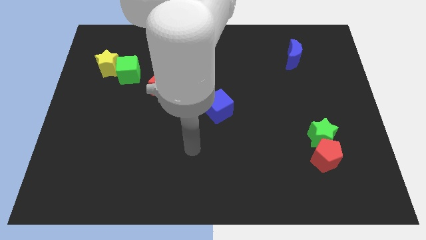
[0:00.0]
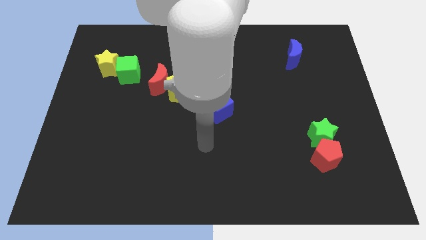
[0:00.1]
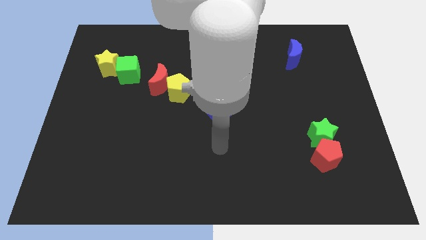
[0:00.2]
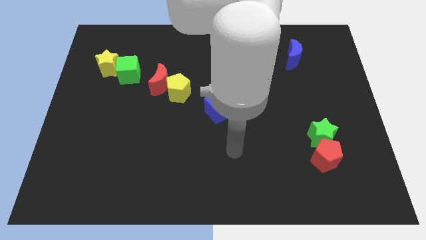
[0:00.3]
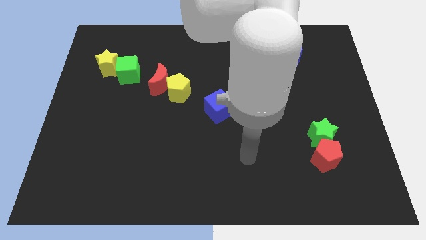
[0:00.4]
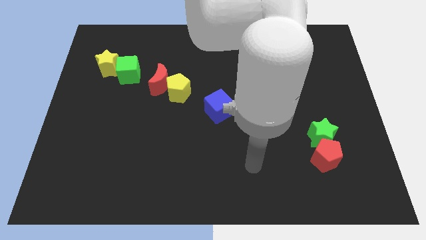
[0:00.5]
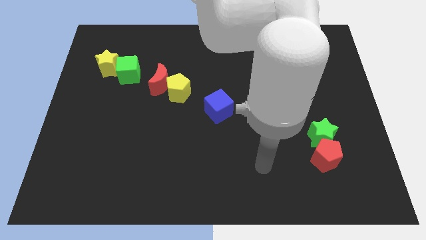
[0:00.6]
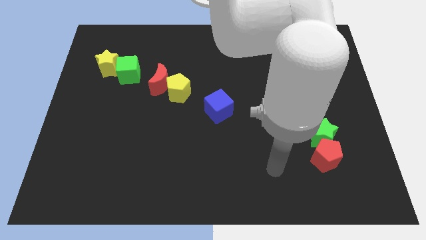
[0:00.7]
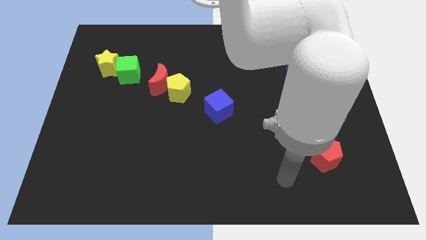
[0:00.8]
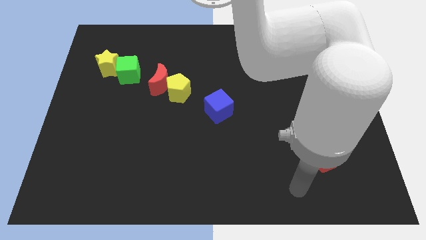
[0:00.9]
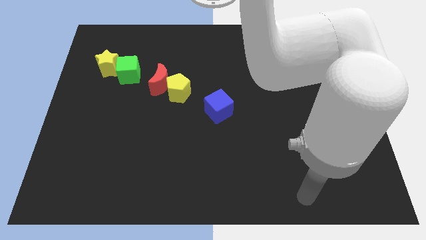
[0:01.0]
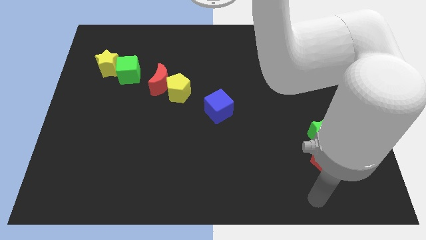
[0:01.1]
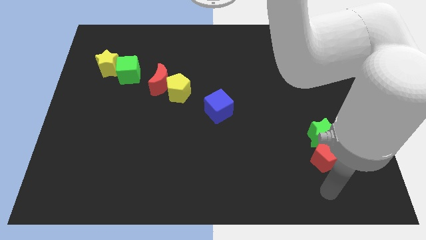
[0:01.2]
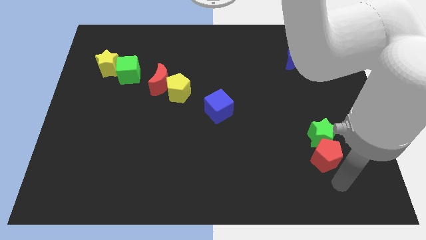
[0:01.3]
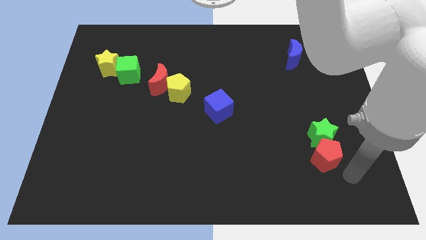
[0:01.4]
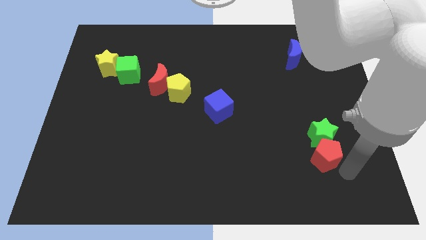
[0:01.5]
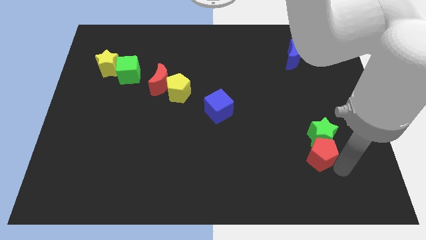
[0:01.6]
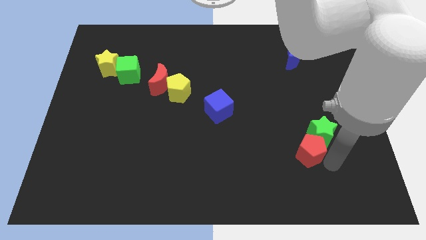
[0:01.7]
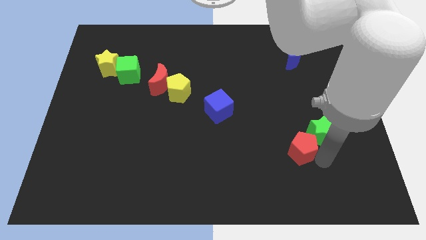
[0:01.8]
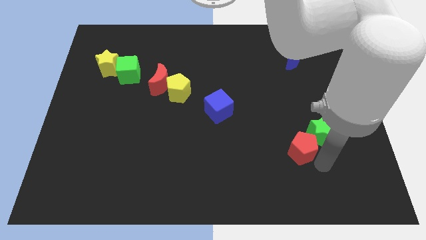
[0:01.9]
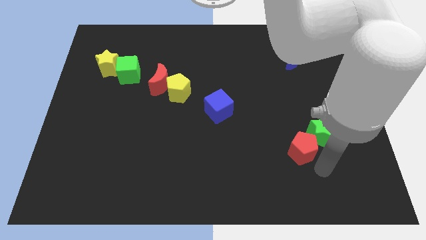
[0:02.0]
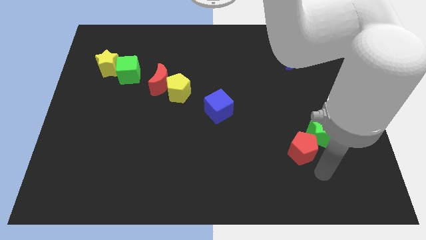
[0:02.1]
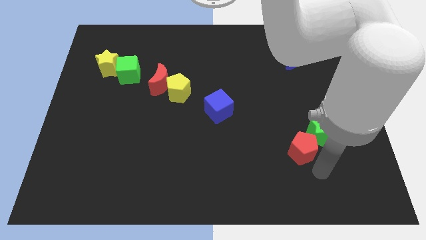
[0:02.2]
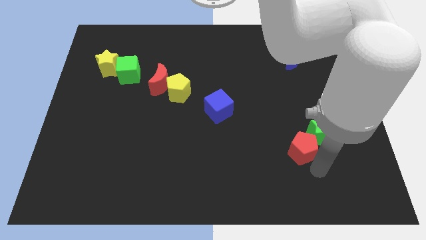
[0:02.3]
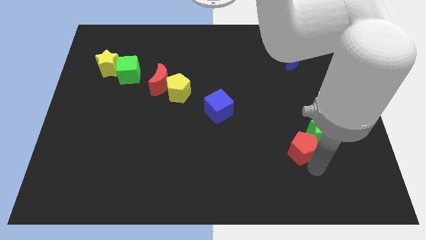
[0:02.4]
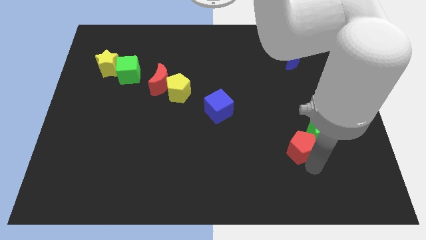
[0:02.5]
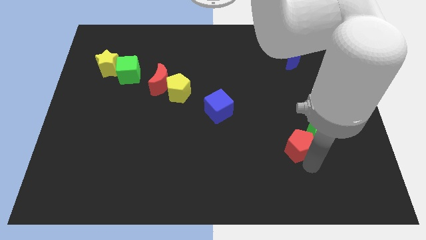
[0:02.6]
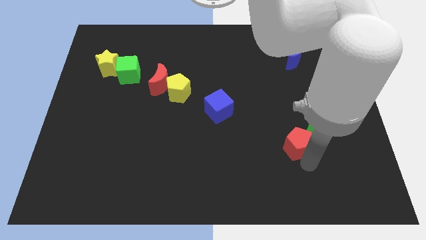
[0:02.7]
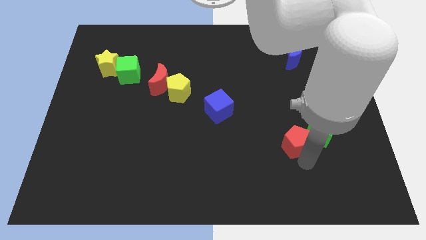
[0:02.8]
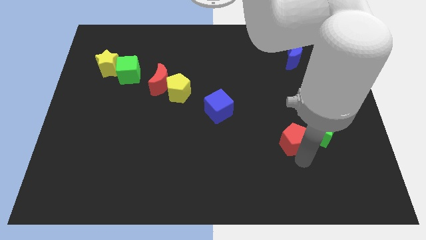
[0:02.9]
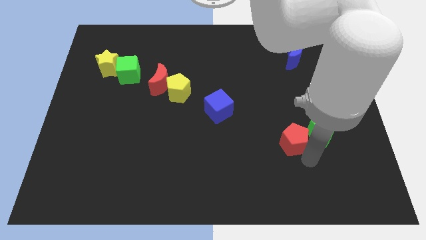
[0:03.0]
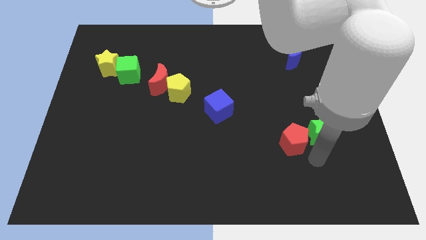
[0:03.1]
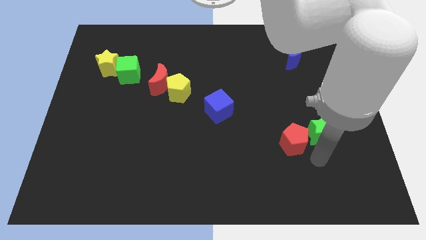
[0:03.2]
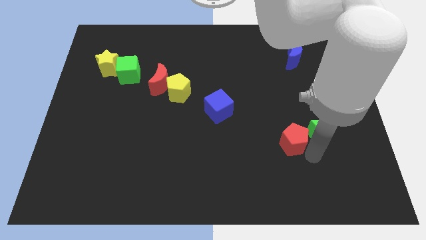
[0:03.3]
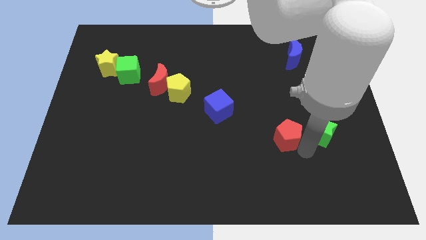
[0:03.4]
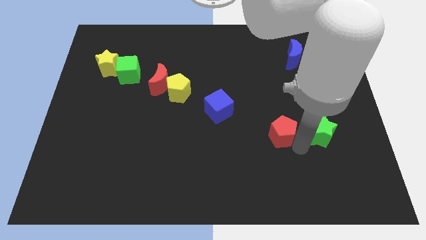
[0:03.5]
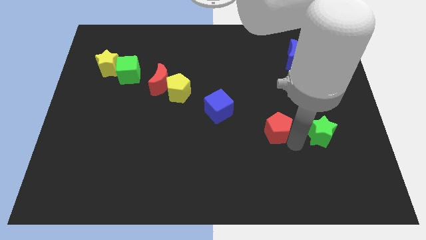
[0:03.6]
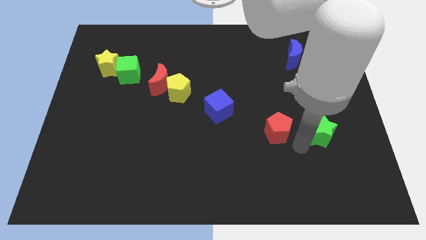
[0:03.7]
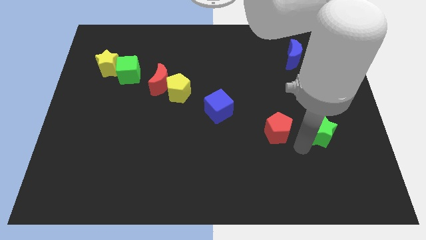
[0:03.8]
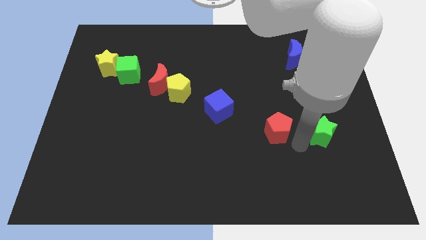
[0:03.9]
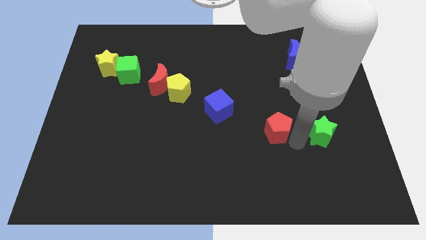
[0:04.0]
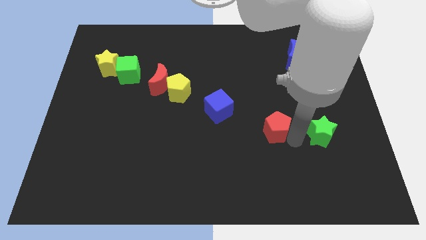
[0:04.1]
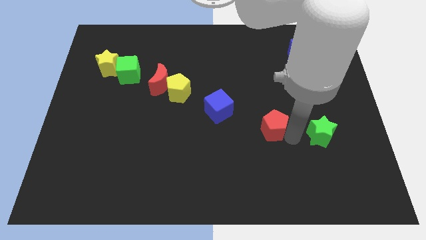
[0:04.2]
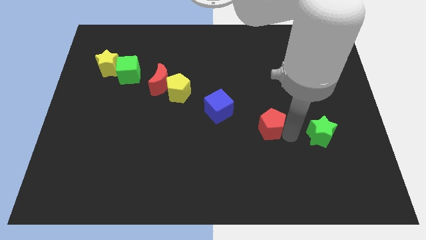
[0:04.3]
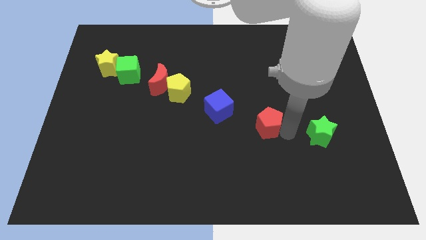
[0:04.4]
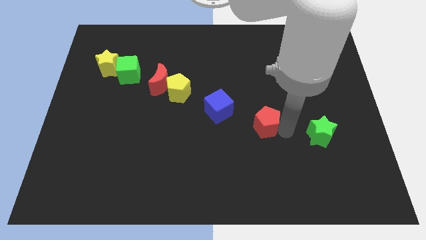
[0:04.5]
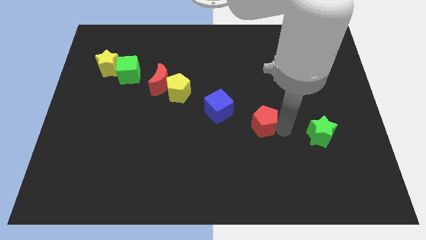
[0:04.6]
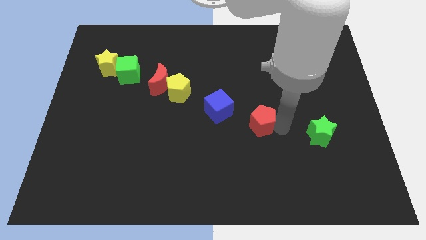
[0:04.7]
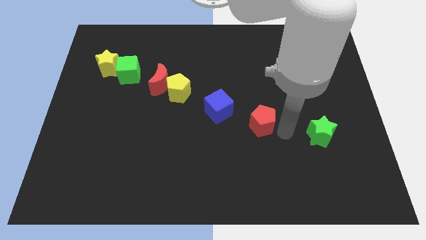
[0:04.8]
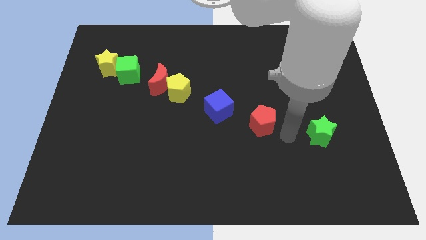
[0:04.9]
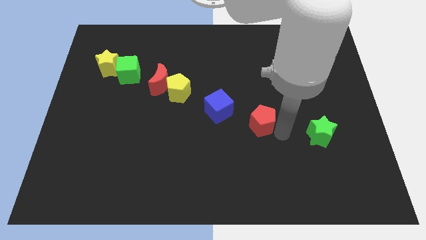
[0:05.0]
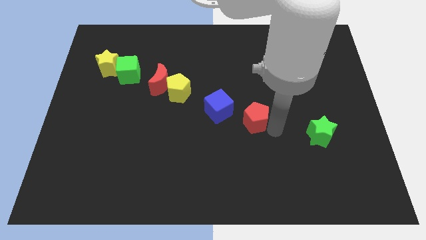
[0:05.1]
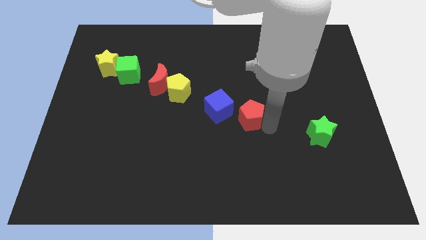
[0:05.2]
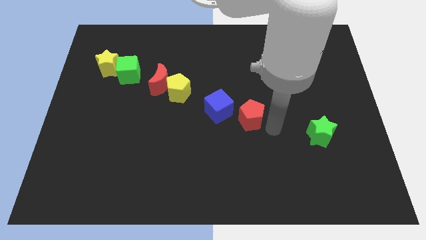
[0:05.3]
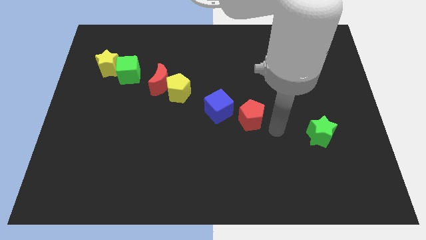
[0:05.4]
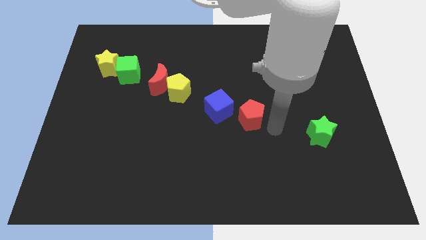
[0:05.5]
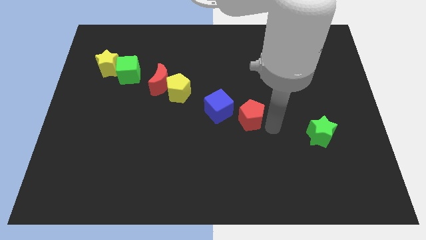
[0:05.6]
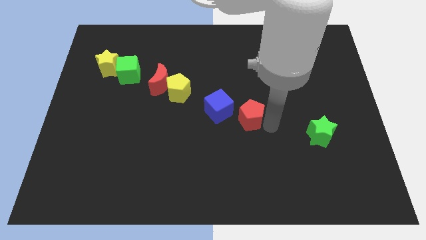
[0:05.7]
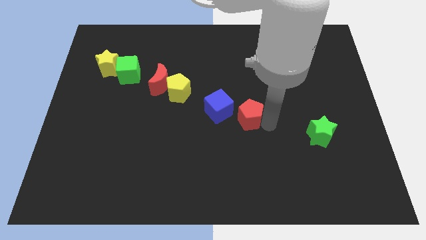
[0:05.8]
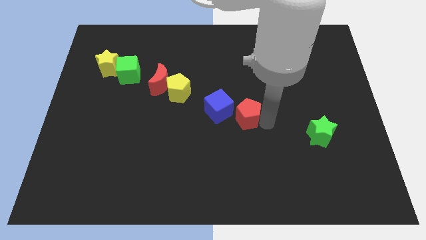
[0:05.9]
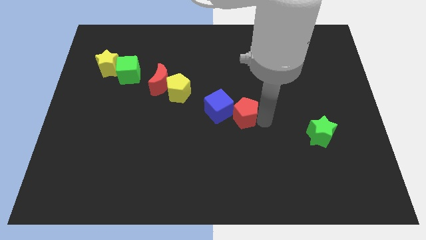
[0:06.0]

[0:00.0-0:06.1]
slide the red pentagon to the blue cube

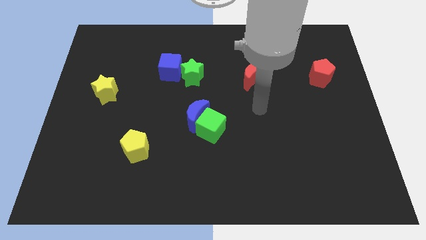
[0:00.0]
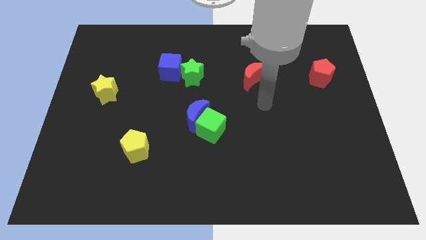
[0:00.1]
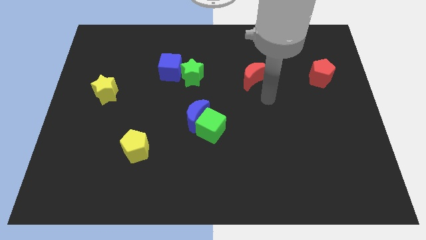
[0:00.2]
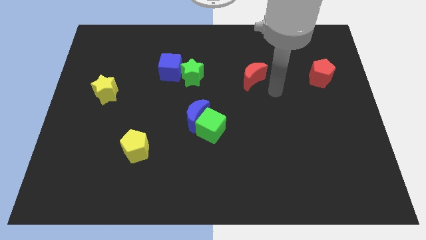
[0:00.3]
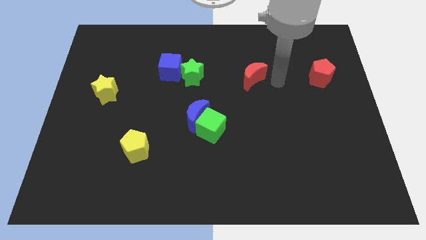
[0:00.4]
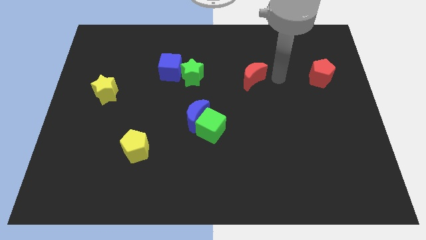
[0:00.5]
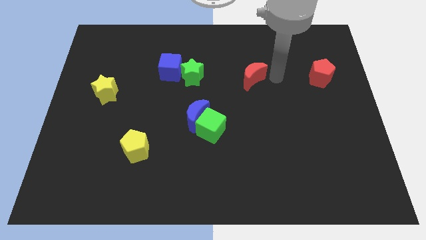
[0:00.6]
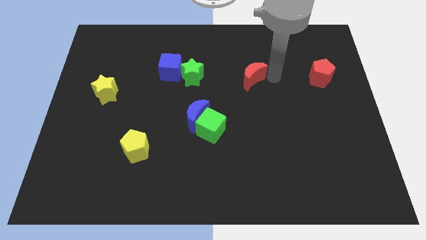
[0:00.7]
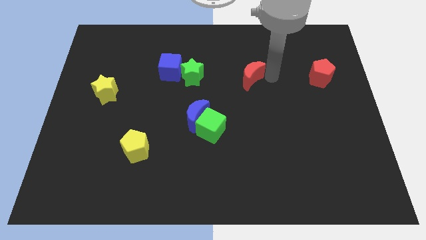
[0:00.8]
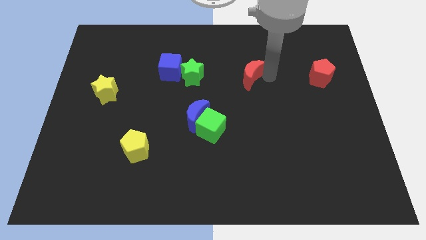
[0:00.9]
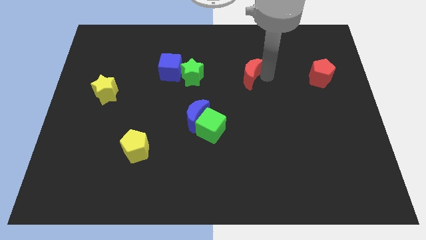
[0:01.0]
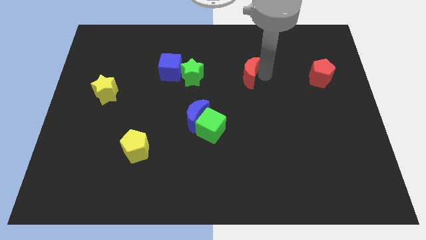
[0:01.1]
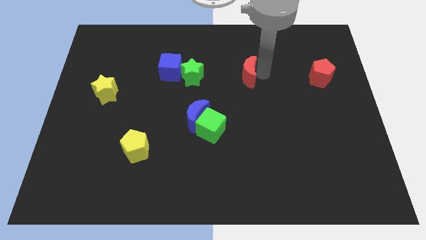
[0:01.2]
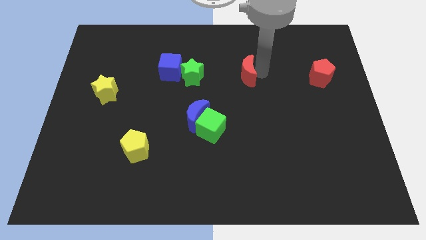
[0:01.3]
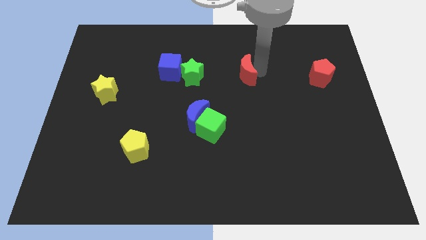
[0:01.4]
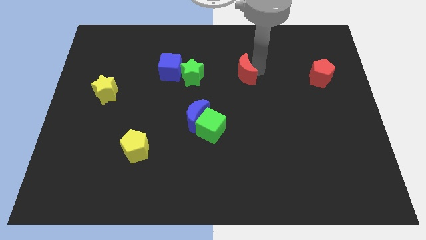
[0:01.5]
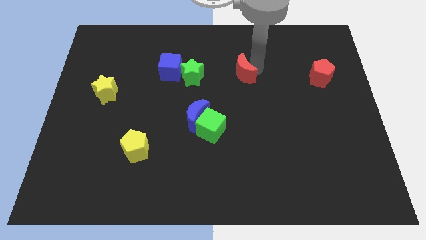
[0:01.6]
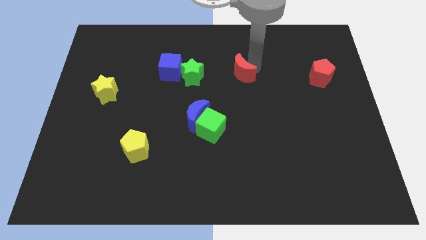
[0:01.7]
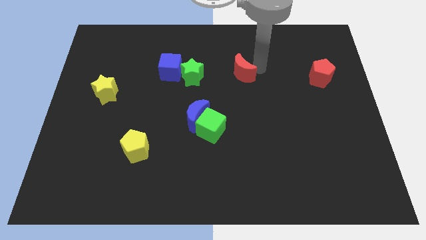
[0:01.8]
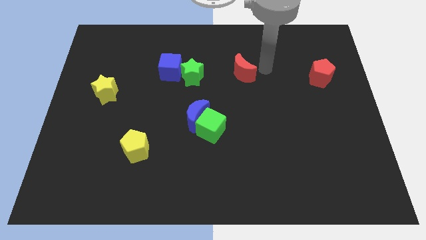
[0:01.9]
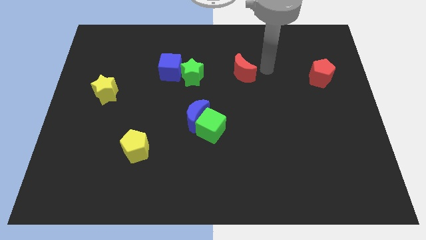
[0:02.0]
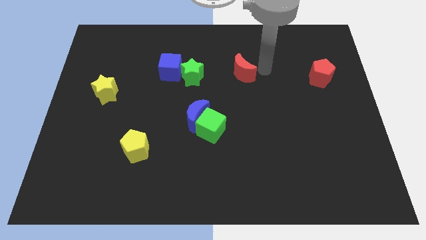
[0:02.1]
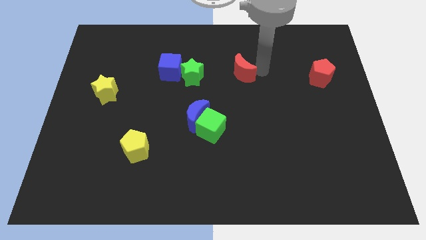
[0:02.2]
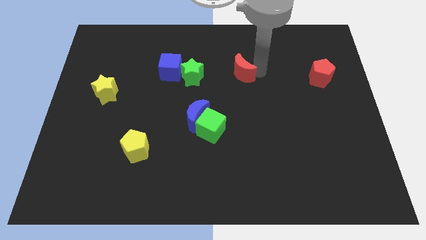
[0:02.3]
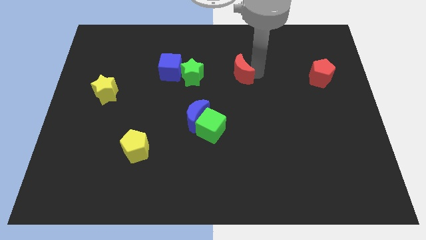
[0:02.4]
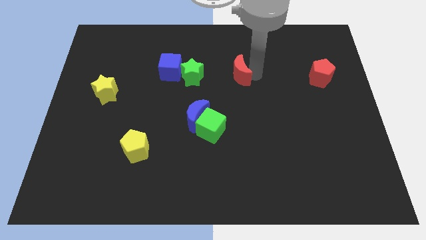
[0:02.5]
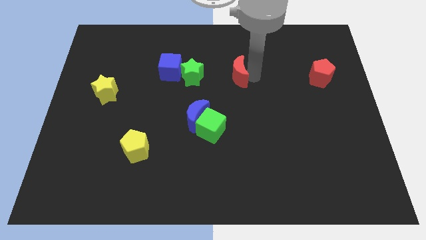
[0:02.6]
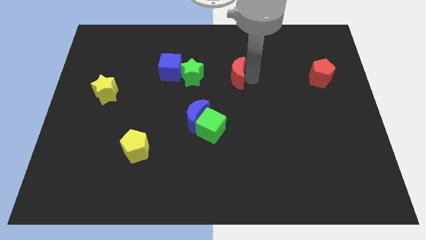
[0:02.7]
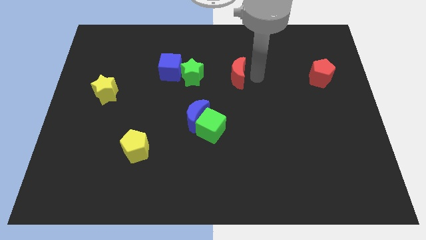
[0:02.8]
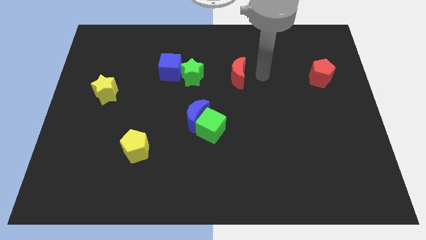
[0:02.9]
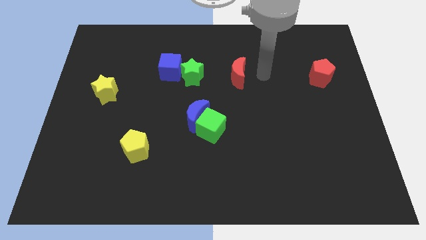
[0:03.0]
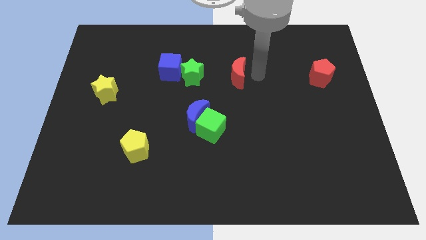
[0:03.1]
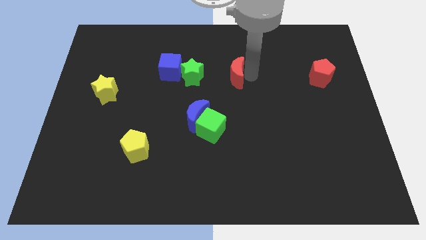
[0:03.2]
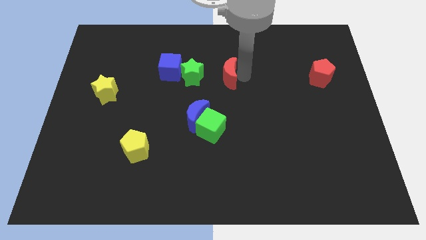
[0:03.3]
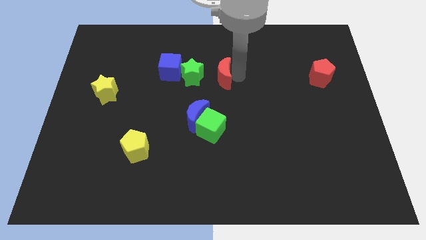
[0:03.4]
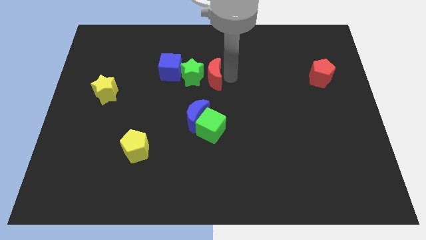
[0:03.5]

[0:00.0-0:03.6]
put the red moon to the green star
